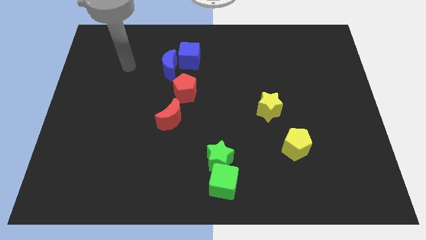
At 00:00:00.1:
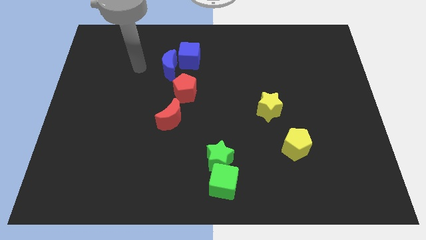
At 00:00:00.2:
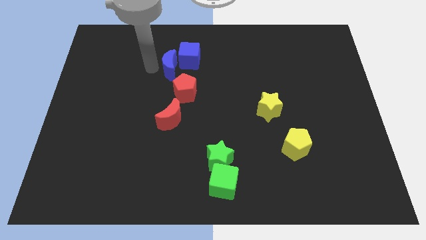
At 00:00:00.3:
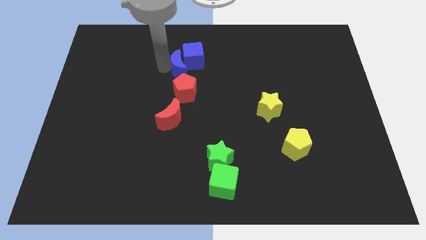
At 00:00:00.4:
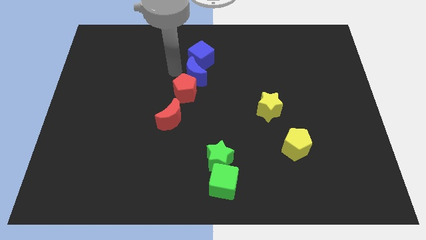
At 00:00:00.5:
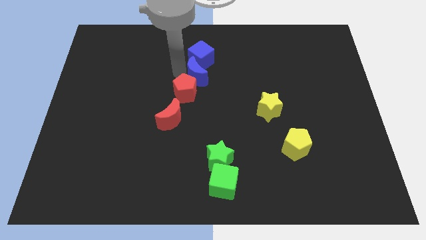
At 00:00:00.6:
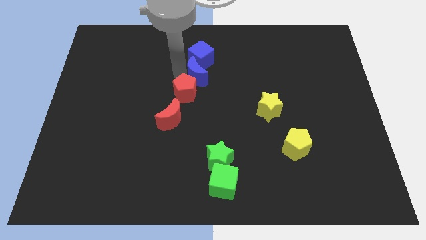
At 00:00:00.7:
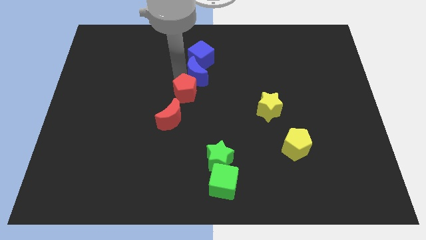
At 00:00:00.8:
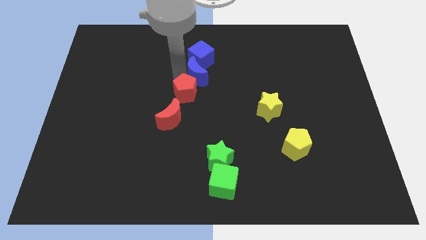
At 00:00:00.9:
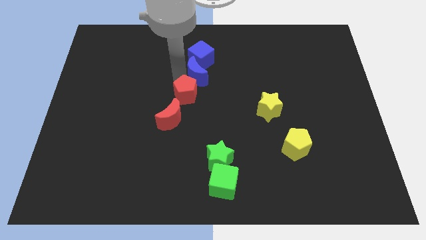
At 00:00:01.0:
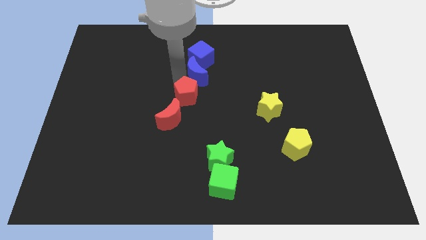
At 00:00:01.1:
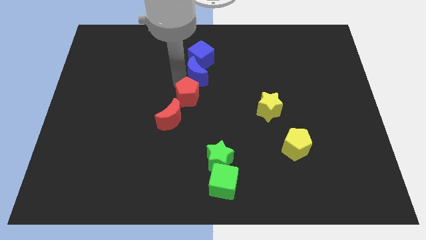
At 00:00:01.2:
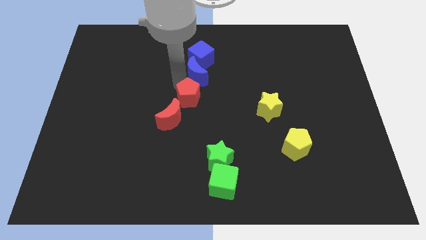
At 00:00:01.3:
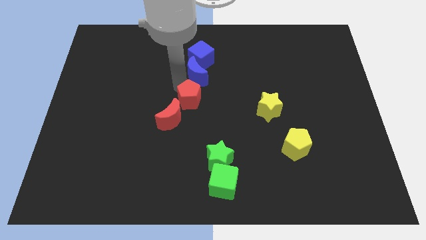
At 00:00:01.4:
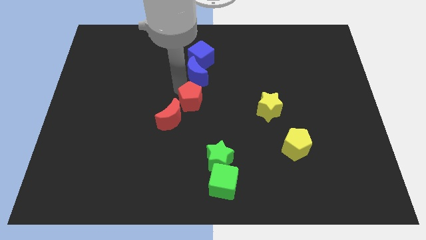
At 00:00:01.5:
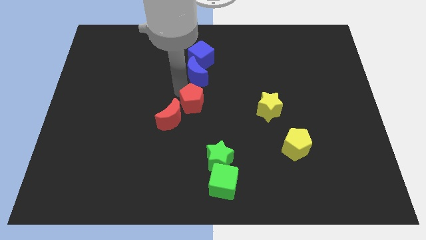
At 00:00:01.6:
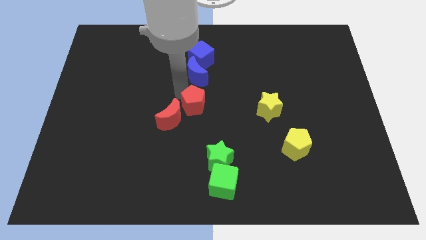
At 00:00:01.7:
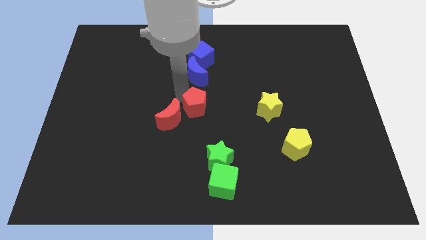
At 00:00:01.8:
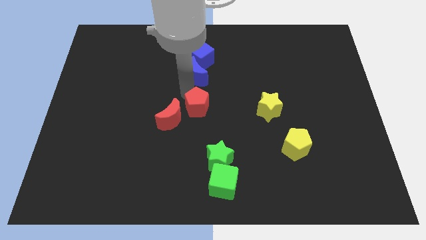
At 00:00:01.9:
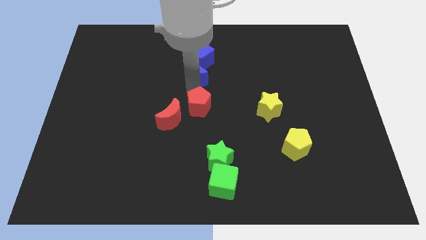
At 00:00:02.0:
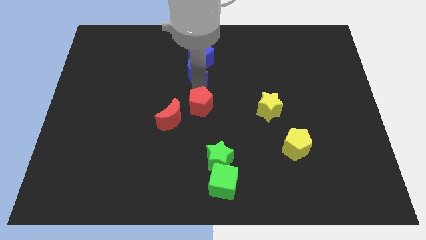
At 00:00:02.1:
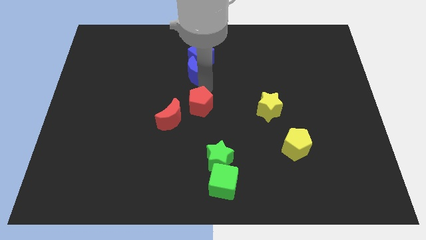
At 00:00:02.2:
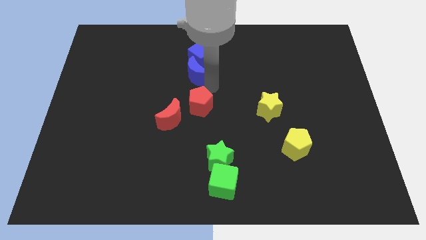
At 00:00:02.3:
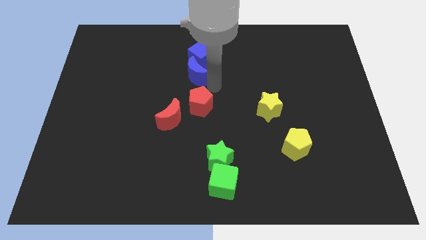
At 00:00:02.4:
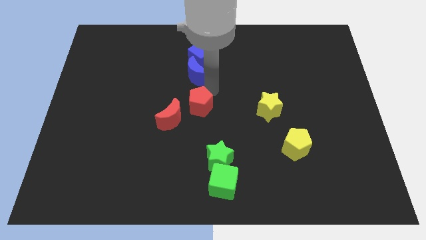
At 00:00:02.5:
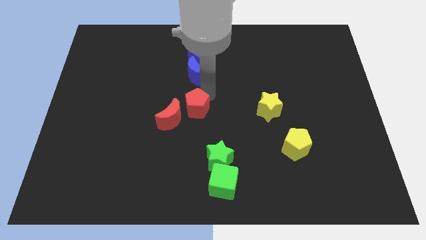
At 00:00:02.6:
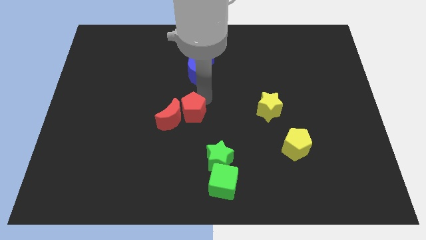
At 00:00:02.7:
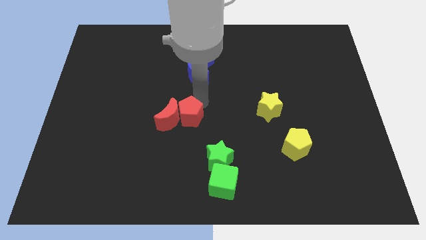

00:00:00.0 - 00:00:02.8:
move the red pentagon a little bit downwards

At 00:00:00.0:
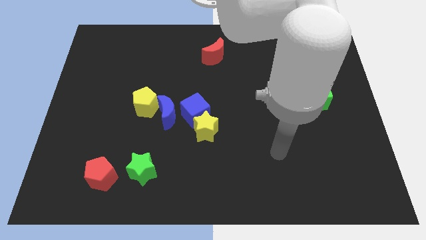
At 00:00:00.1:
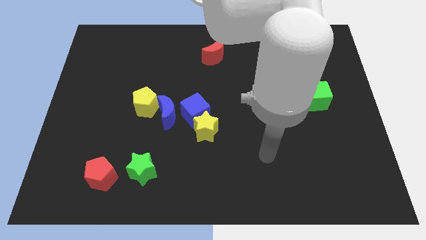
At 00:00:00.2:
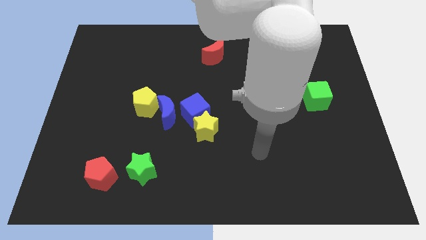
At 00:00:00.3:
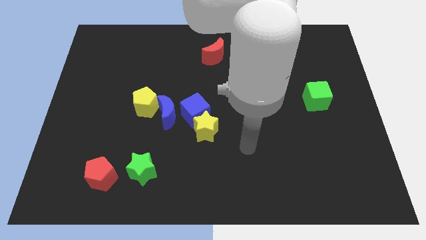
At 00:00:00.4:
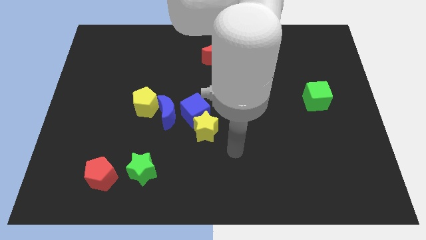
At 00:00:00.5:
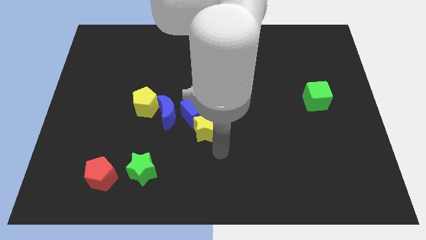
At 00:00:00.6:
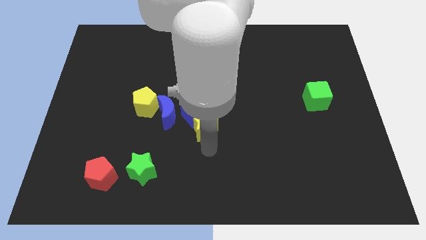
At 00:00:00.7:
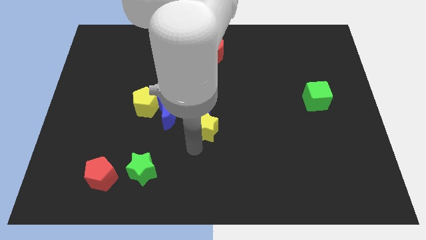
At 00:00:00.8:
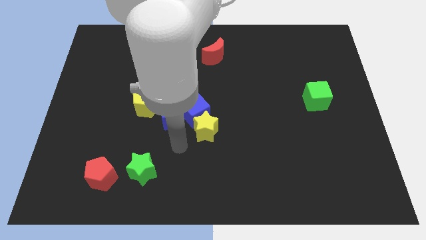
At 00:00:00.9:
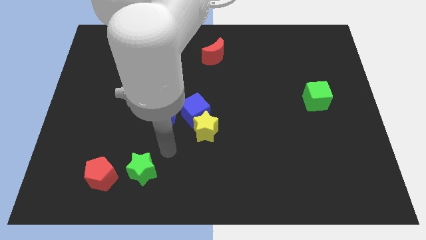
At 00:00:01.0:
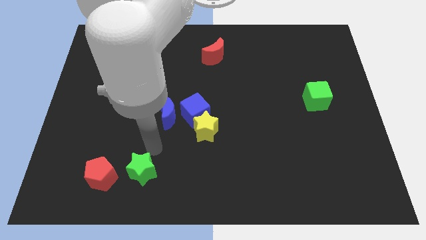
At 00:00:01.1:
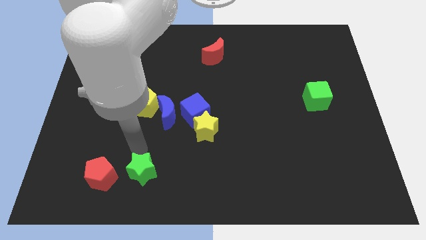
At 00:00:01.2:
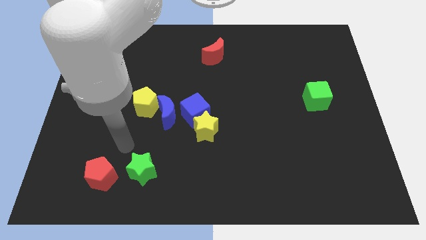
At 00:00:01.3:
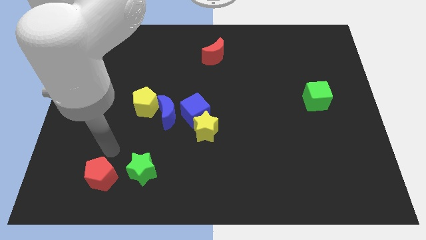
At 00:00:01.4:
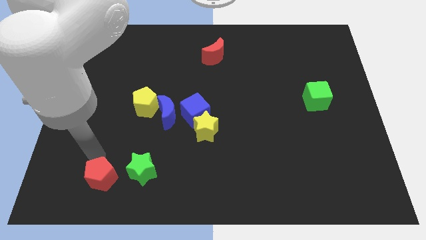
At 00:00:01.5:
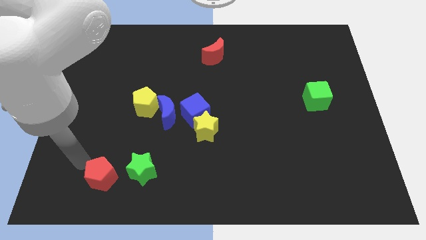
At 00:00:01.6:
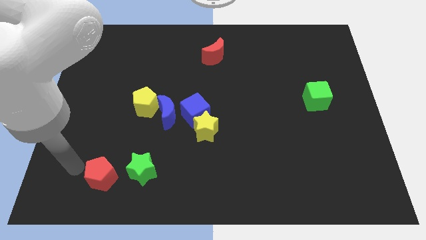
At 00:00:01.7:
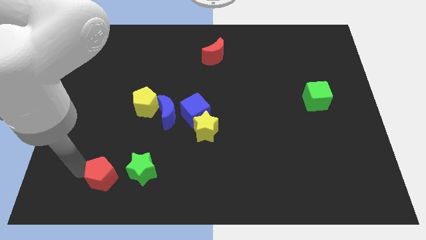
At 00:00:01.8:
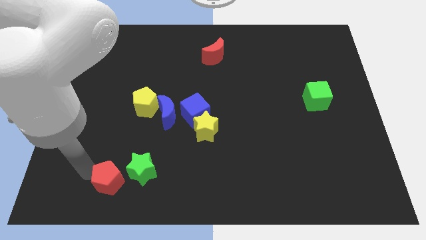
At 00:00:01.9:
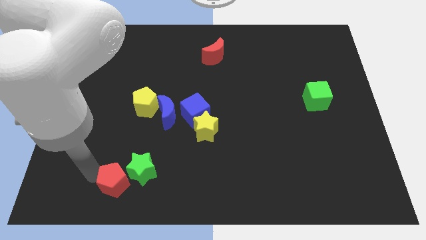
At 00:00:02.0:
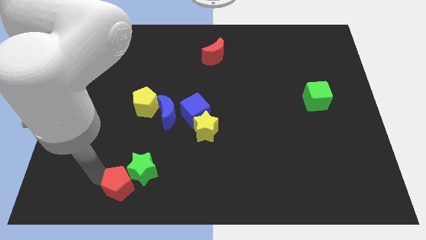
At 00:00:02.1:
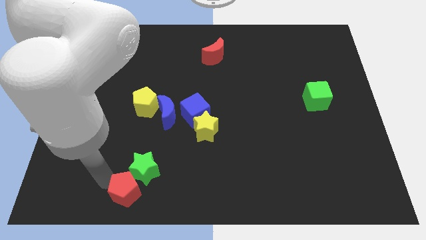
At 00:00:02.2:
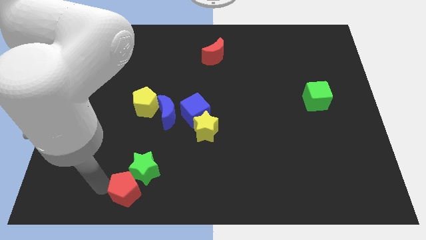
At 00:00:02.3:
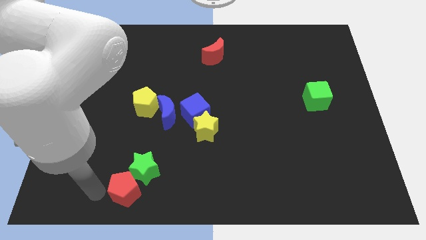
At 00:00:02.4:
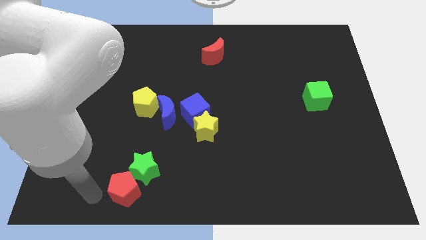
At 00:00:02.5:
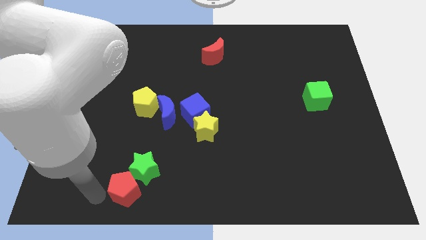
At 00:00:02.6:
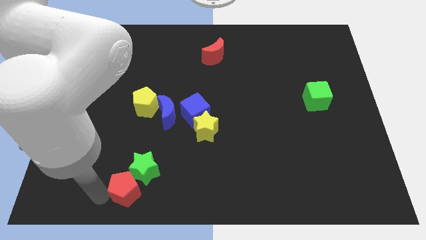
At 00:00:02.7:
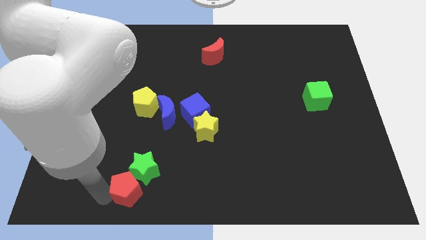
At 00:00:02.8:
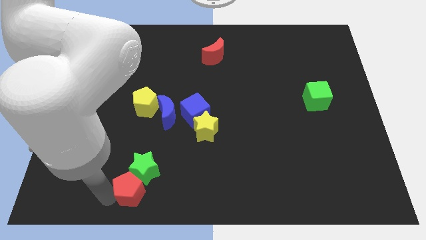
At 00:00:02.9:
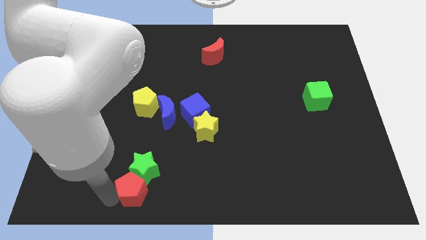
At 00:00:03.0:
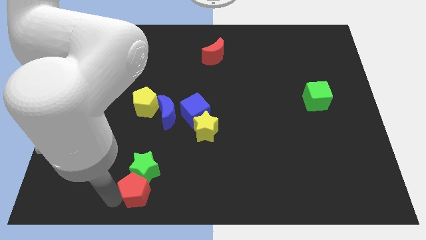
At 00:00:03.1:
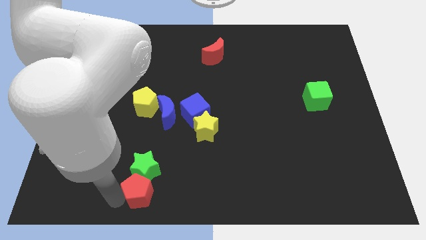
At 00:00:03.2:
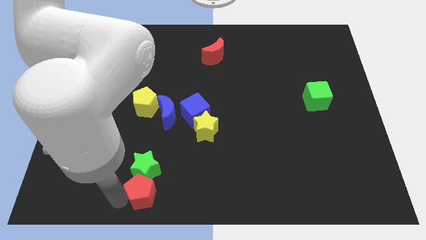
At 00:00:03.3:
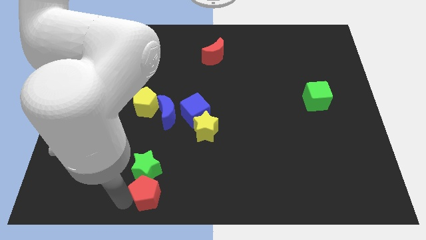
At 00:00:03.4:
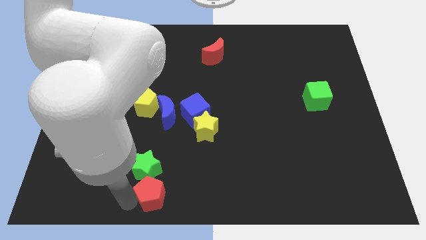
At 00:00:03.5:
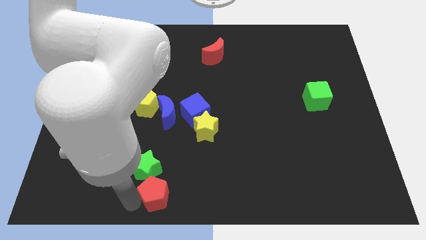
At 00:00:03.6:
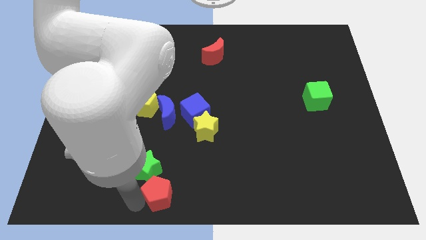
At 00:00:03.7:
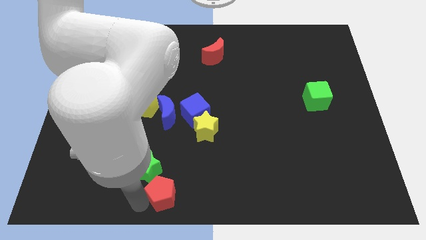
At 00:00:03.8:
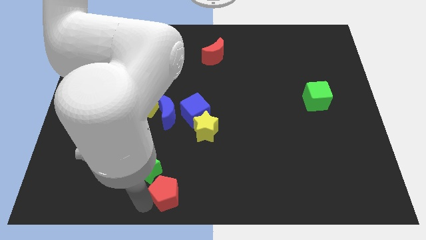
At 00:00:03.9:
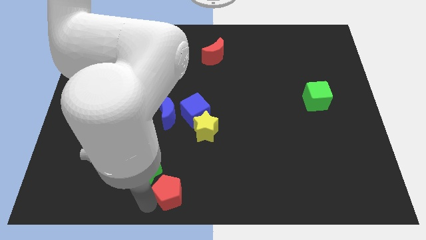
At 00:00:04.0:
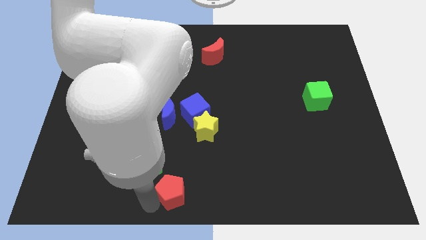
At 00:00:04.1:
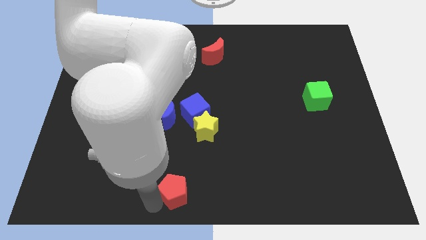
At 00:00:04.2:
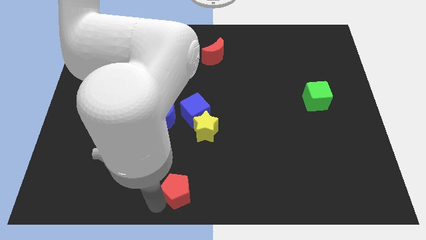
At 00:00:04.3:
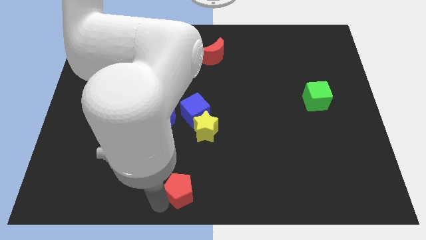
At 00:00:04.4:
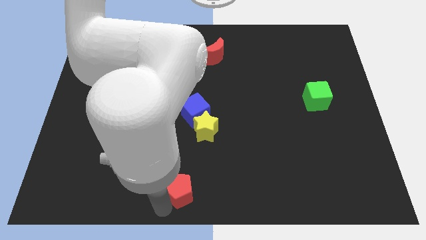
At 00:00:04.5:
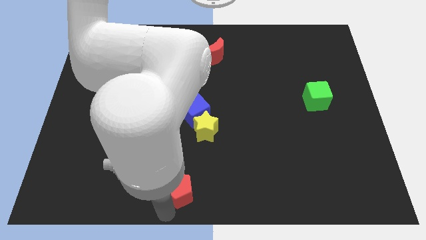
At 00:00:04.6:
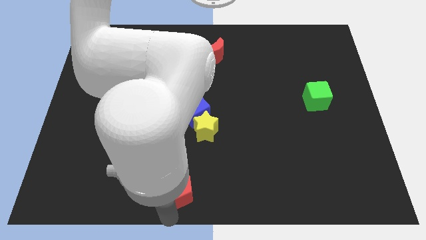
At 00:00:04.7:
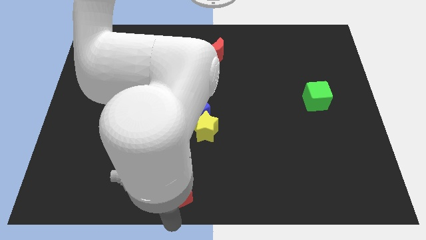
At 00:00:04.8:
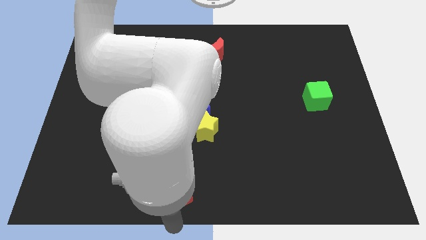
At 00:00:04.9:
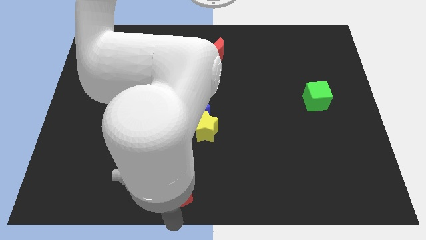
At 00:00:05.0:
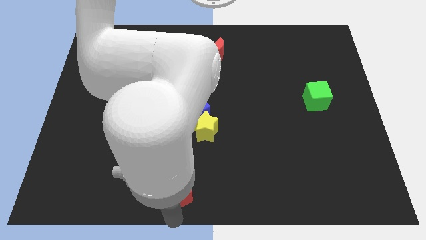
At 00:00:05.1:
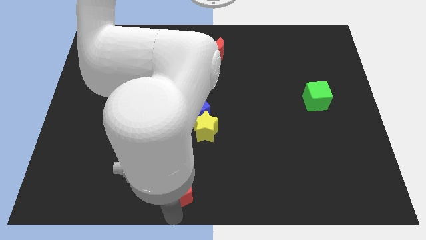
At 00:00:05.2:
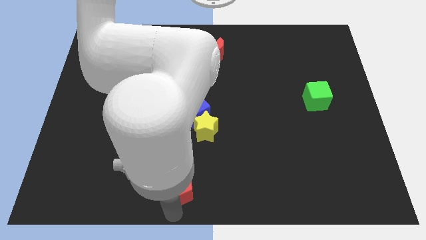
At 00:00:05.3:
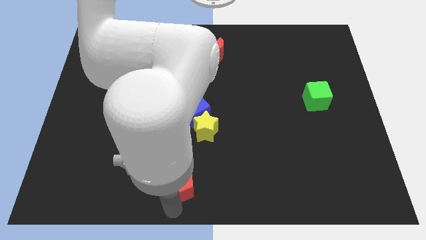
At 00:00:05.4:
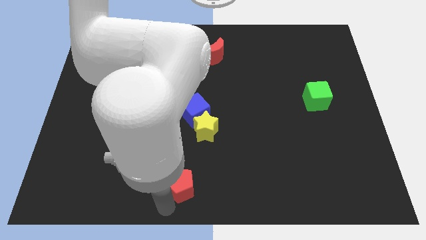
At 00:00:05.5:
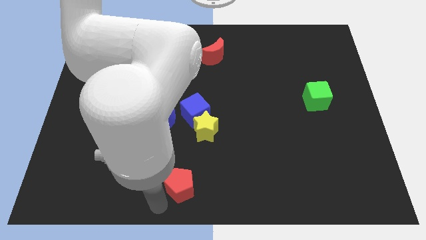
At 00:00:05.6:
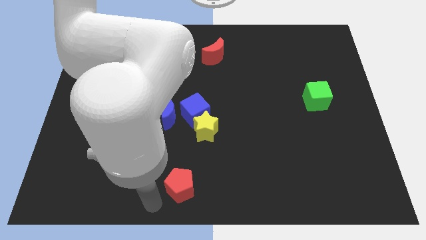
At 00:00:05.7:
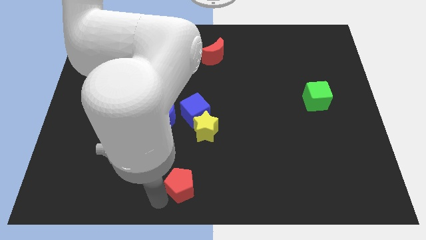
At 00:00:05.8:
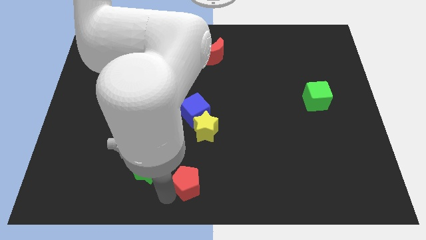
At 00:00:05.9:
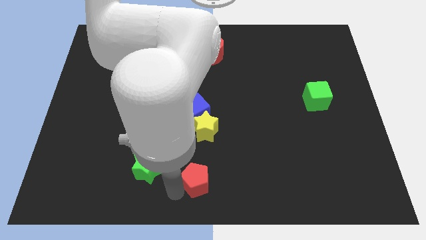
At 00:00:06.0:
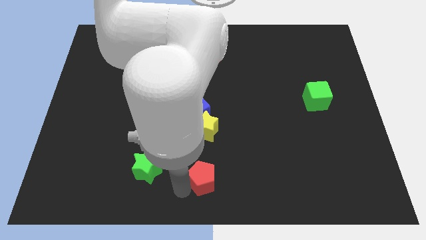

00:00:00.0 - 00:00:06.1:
slide the red pentagon to the right
